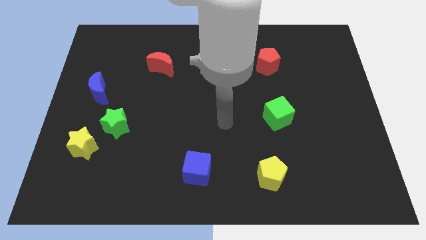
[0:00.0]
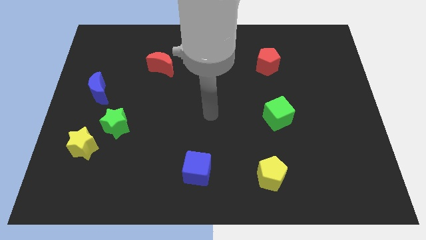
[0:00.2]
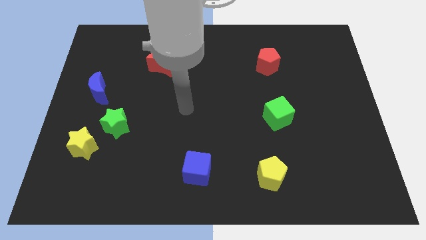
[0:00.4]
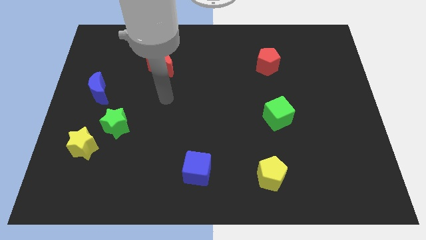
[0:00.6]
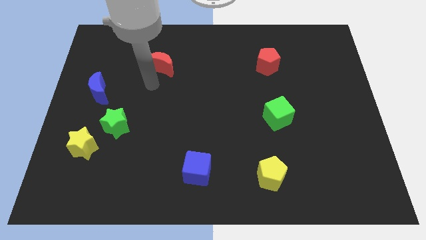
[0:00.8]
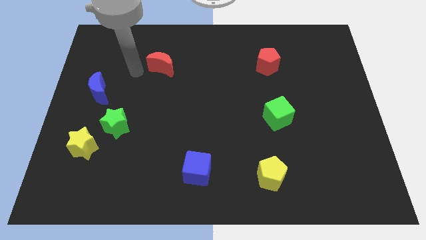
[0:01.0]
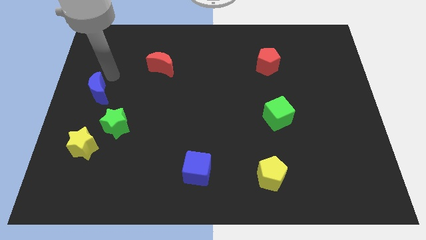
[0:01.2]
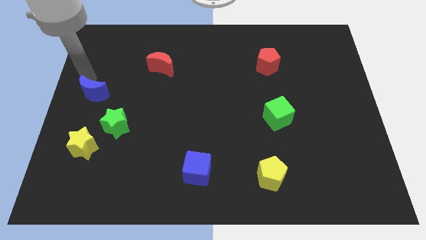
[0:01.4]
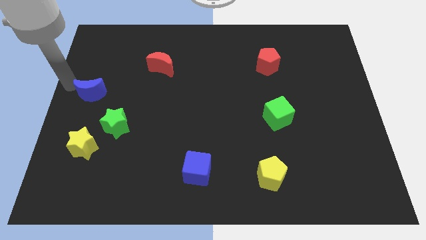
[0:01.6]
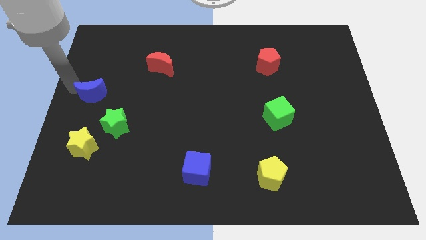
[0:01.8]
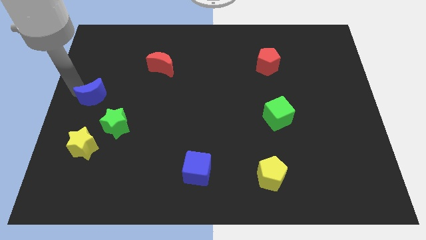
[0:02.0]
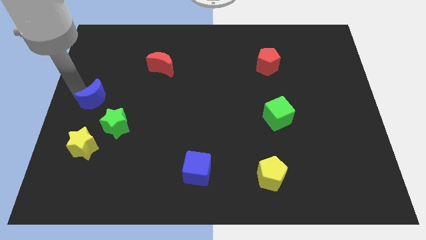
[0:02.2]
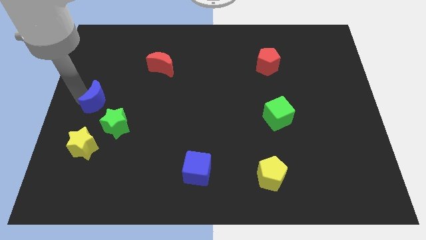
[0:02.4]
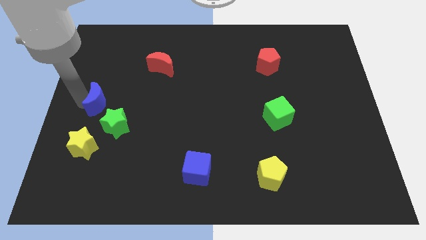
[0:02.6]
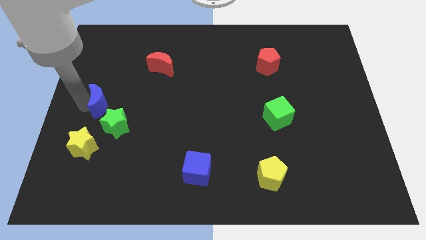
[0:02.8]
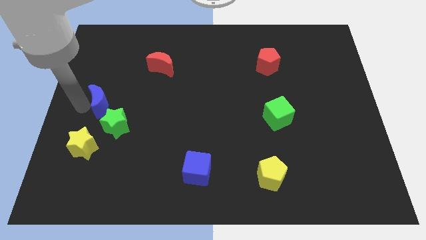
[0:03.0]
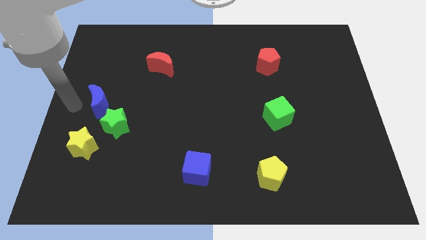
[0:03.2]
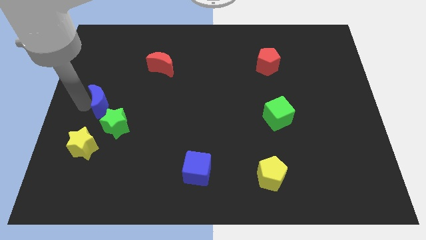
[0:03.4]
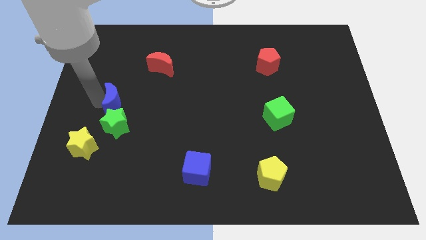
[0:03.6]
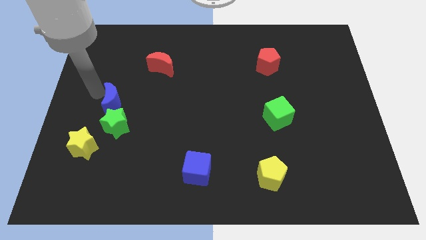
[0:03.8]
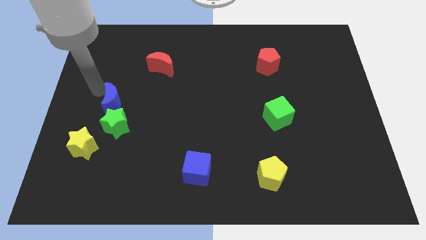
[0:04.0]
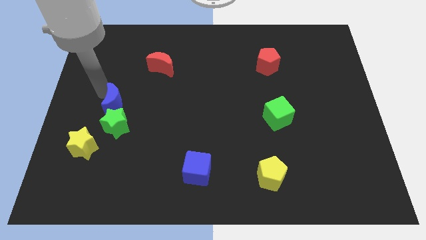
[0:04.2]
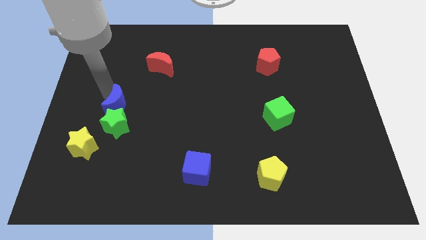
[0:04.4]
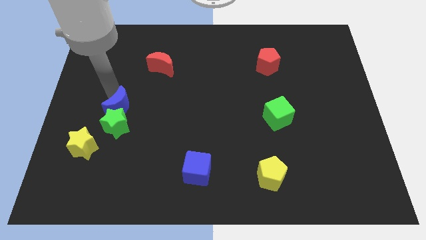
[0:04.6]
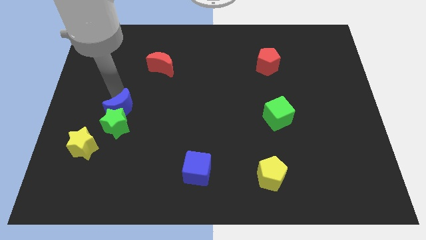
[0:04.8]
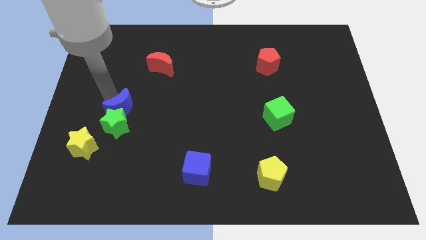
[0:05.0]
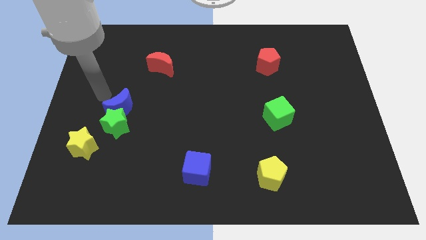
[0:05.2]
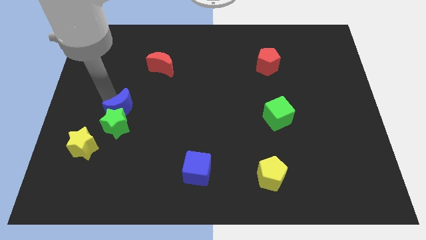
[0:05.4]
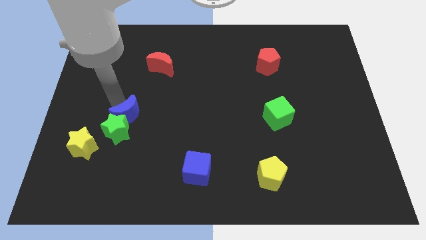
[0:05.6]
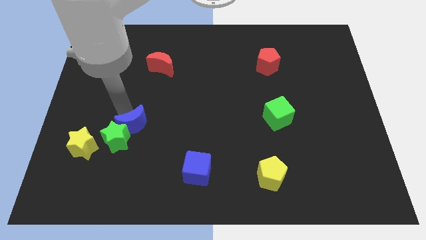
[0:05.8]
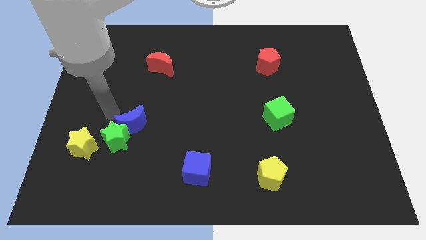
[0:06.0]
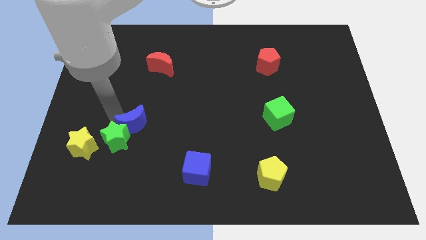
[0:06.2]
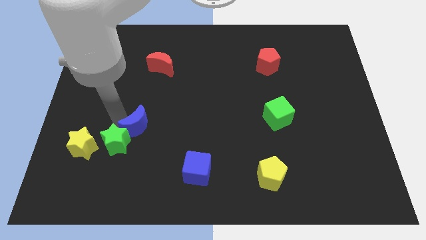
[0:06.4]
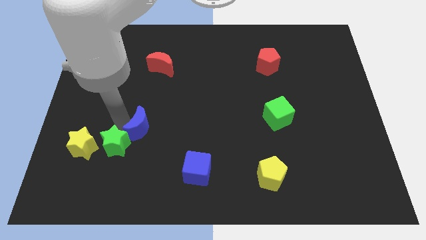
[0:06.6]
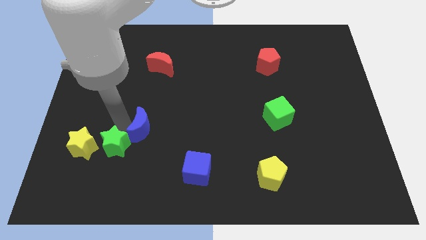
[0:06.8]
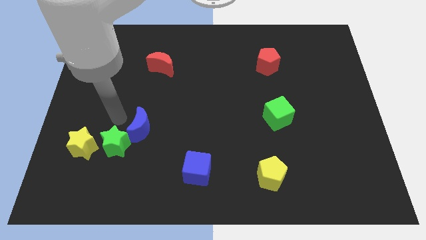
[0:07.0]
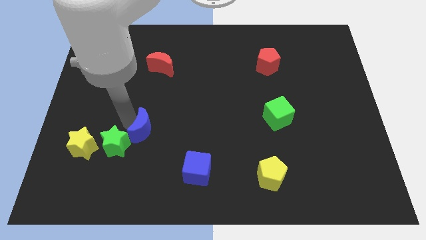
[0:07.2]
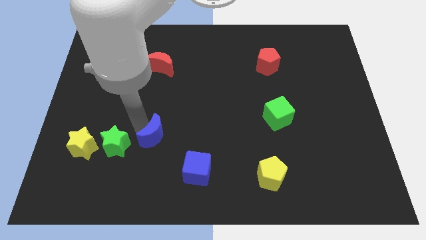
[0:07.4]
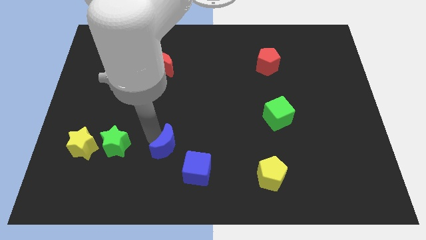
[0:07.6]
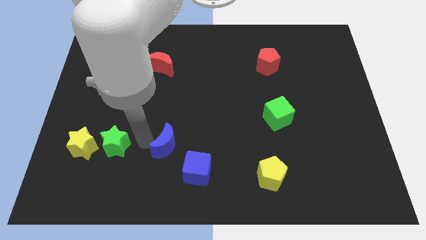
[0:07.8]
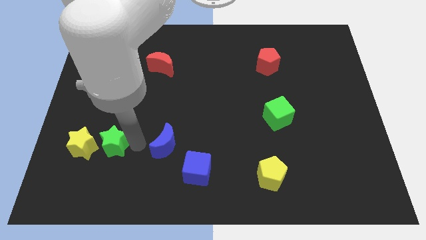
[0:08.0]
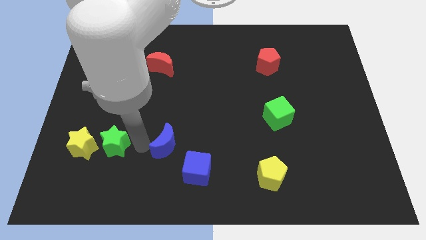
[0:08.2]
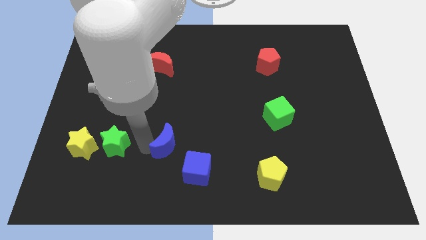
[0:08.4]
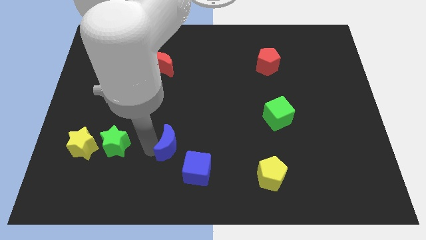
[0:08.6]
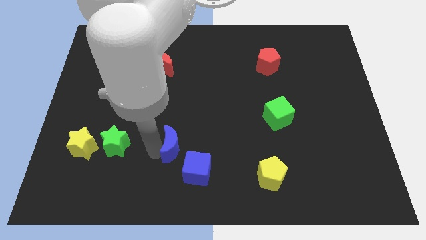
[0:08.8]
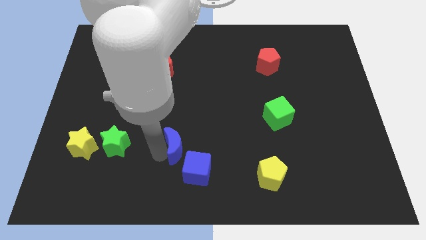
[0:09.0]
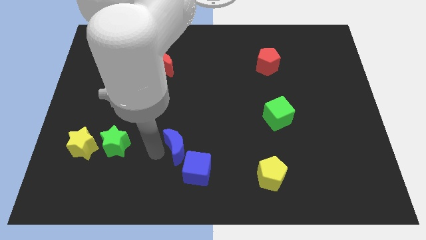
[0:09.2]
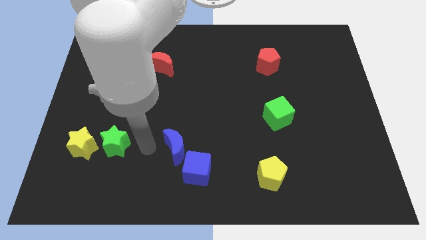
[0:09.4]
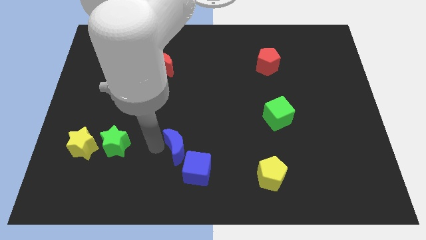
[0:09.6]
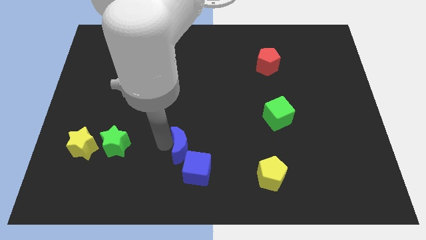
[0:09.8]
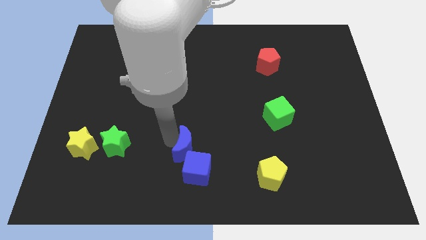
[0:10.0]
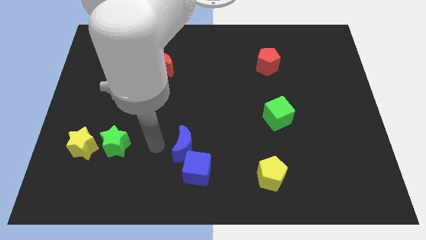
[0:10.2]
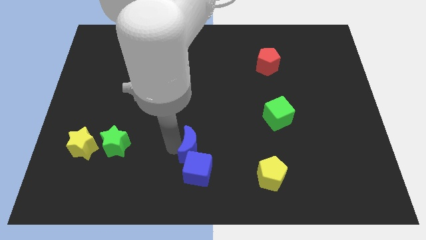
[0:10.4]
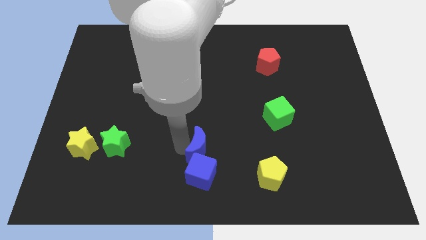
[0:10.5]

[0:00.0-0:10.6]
put the blue moon to the top right of the blue cube
